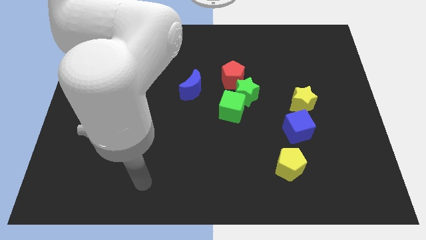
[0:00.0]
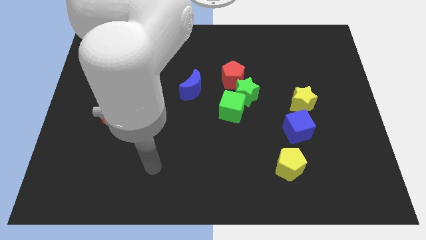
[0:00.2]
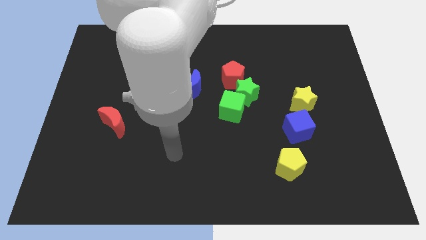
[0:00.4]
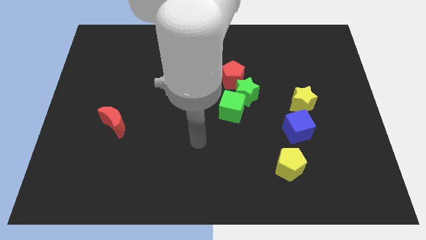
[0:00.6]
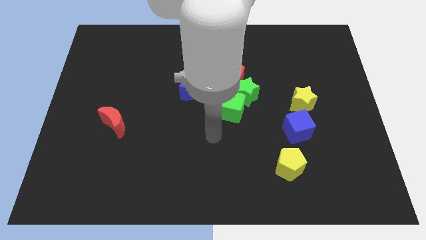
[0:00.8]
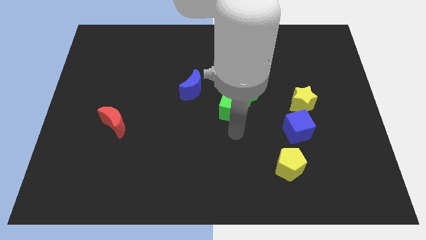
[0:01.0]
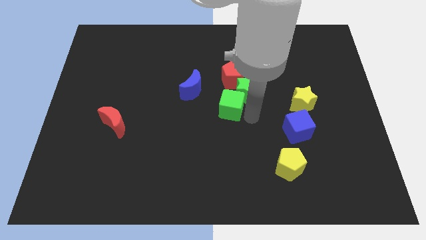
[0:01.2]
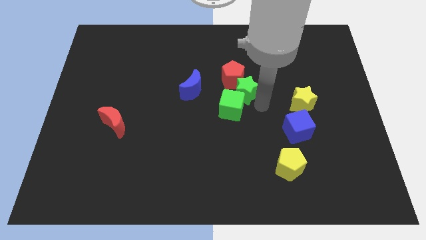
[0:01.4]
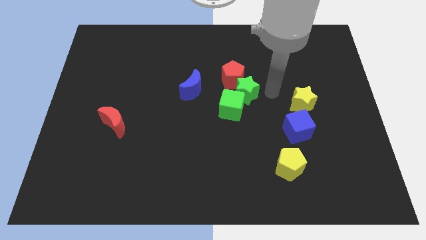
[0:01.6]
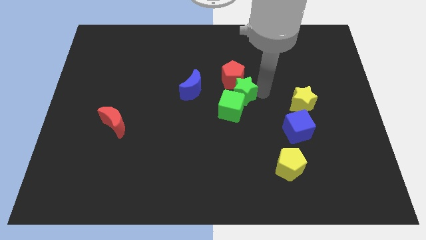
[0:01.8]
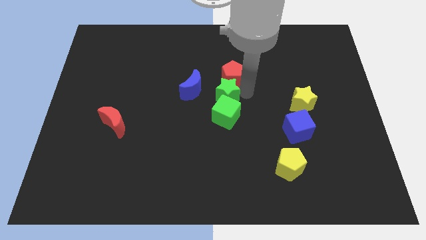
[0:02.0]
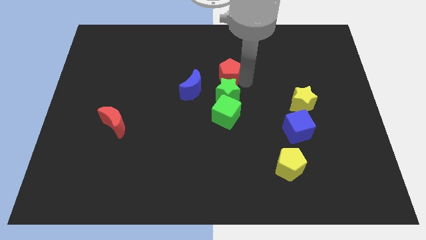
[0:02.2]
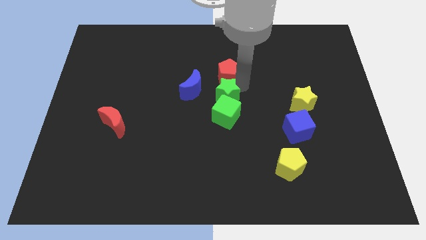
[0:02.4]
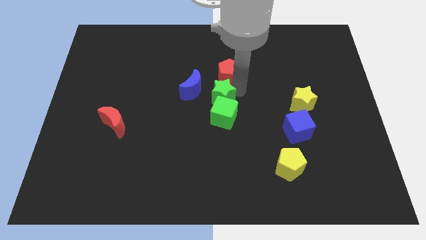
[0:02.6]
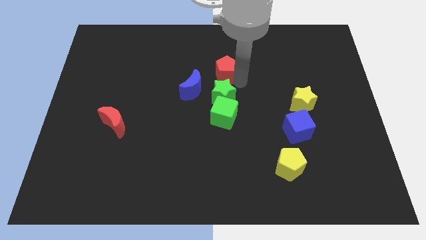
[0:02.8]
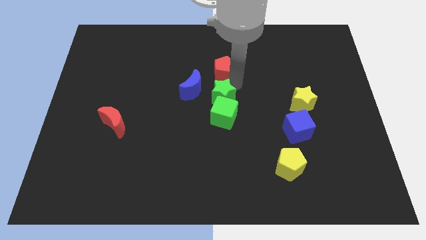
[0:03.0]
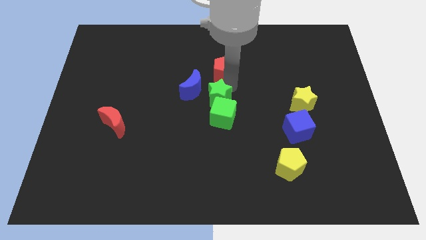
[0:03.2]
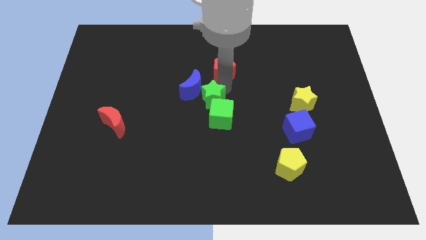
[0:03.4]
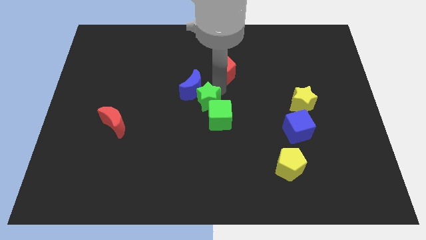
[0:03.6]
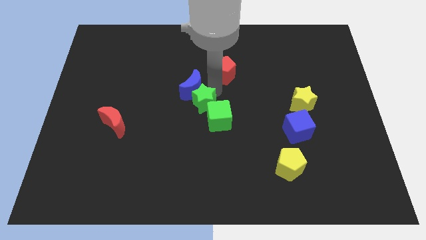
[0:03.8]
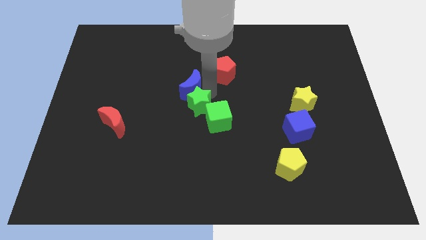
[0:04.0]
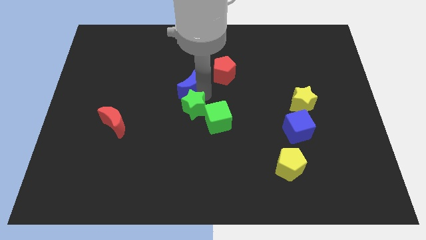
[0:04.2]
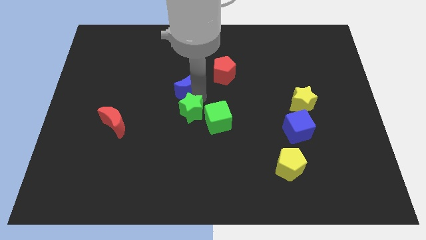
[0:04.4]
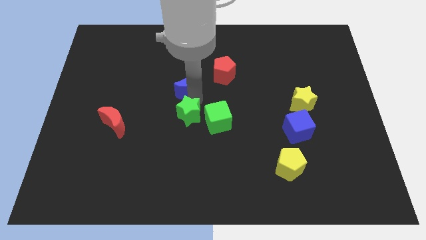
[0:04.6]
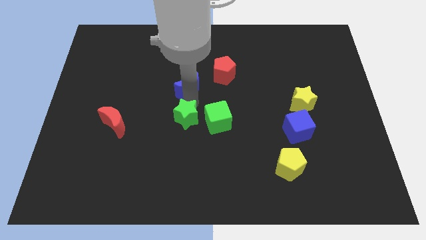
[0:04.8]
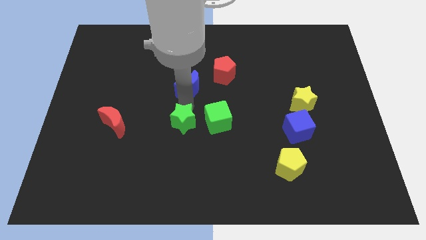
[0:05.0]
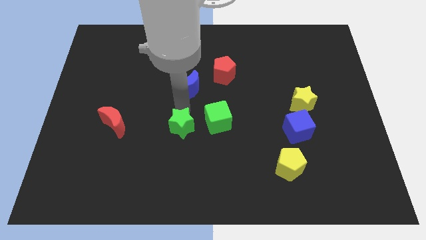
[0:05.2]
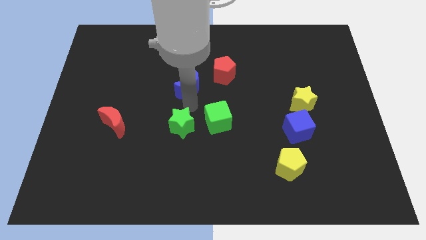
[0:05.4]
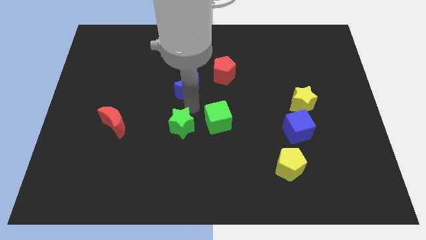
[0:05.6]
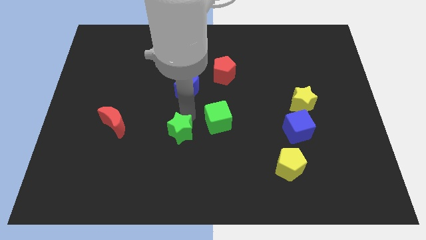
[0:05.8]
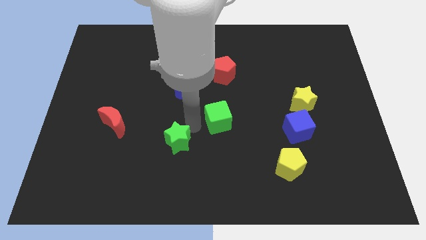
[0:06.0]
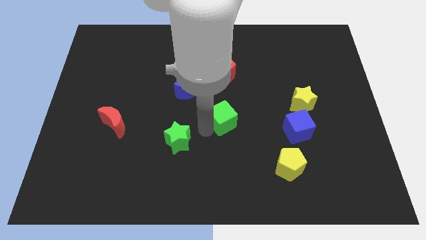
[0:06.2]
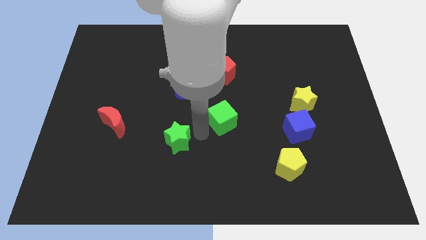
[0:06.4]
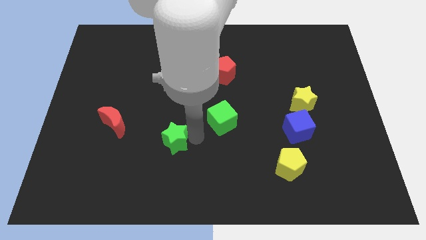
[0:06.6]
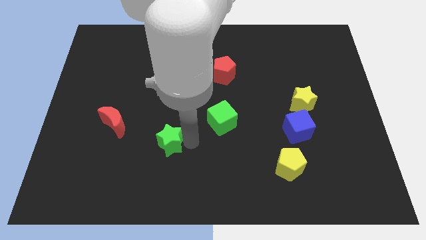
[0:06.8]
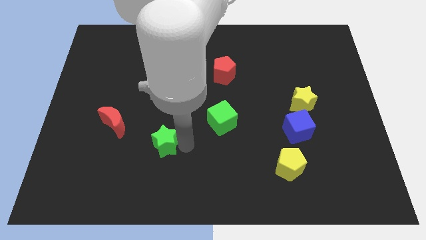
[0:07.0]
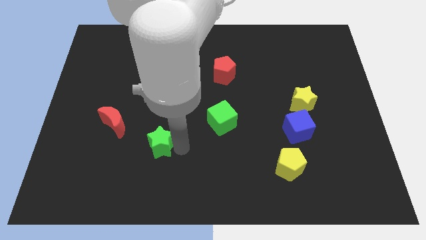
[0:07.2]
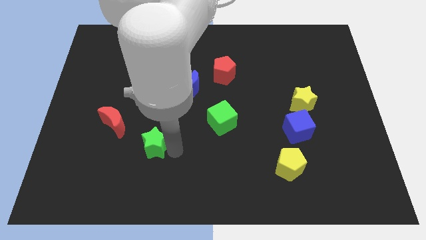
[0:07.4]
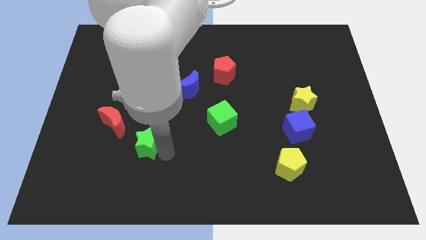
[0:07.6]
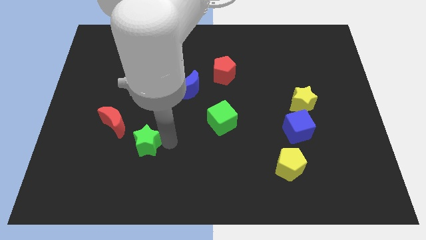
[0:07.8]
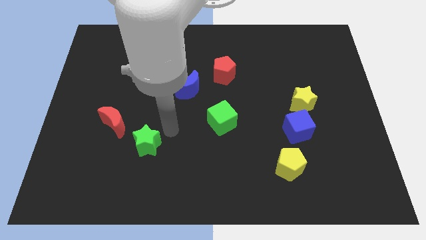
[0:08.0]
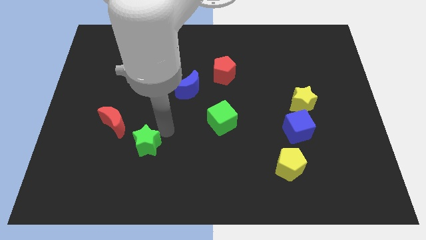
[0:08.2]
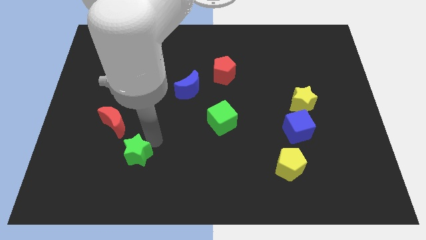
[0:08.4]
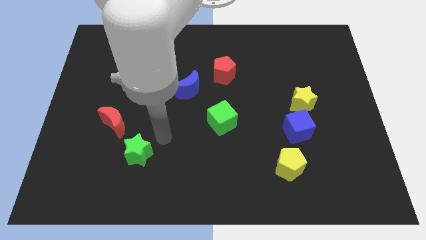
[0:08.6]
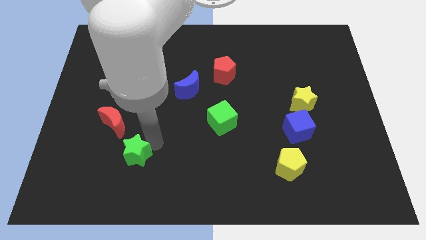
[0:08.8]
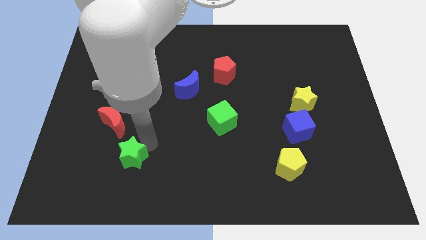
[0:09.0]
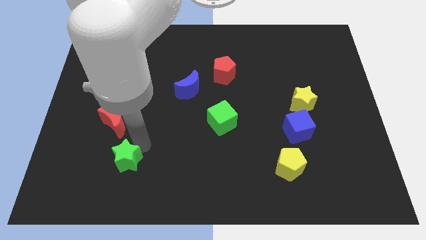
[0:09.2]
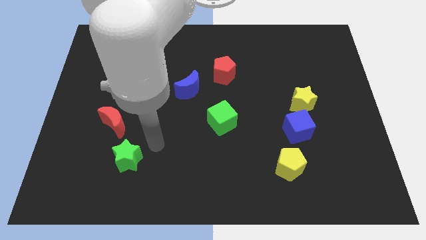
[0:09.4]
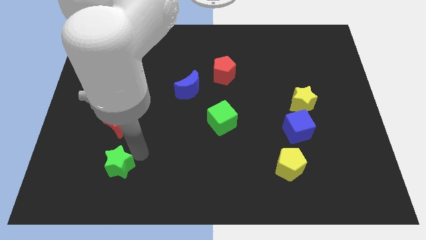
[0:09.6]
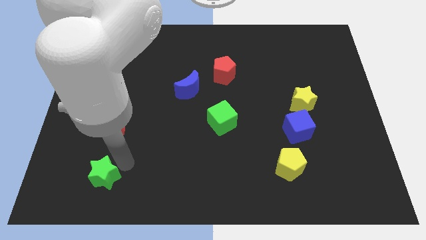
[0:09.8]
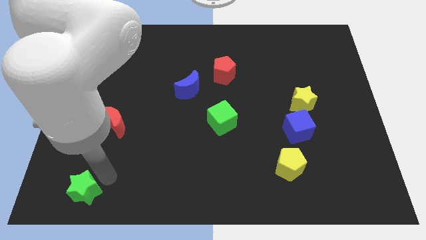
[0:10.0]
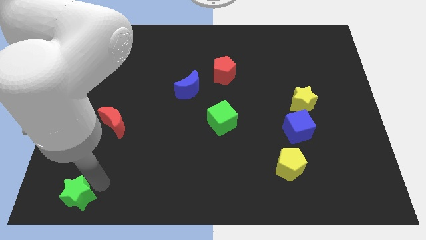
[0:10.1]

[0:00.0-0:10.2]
move the green star to the bottom left of the board

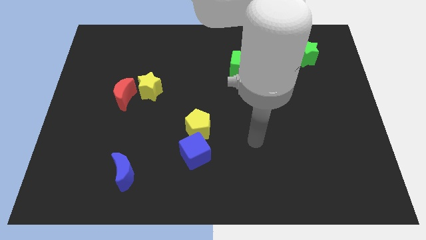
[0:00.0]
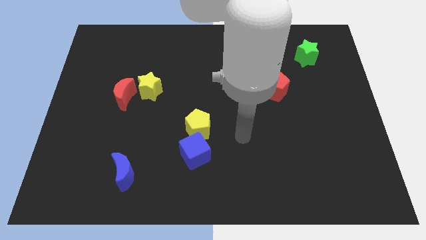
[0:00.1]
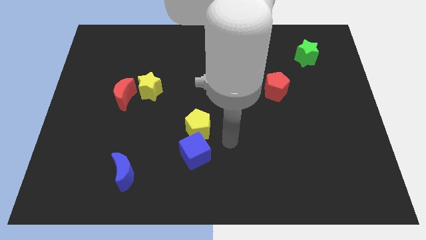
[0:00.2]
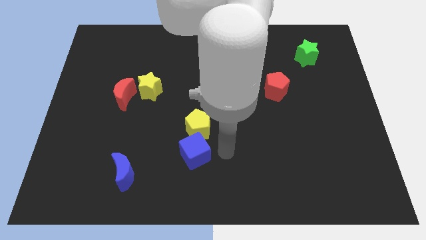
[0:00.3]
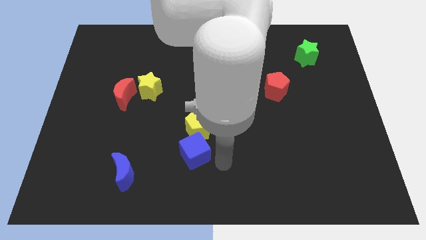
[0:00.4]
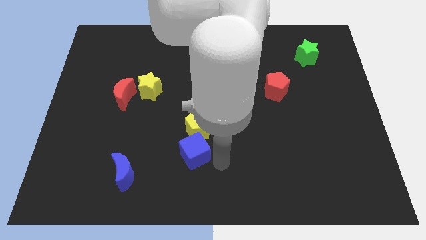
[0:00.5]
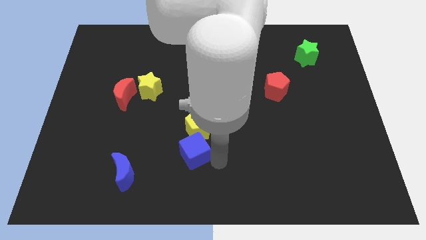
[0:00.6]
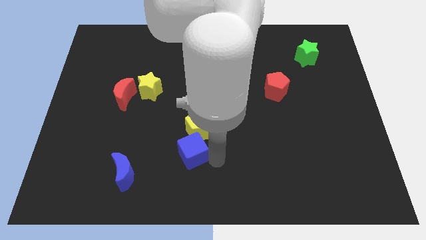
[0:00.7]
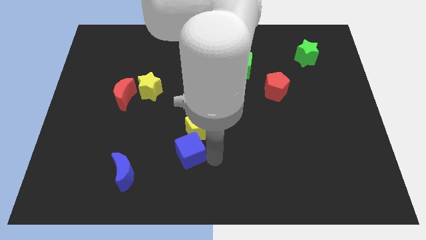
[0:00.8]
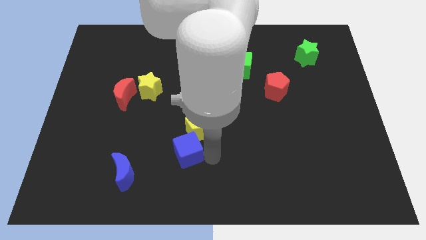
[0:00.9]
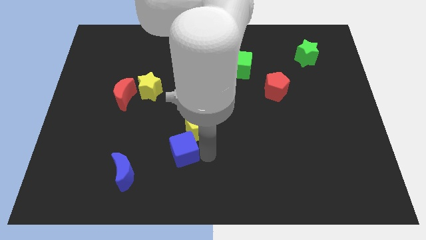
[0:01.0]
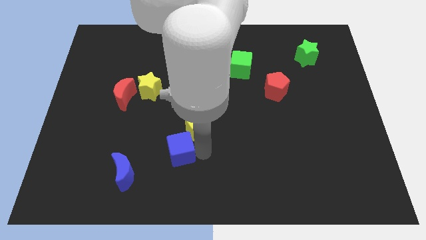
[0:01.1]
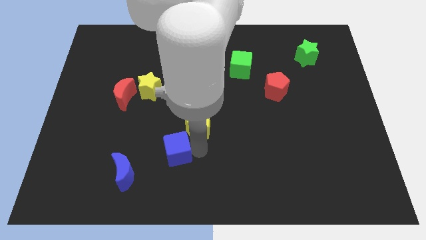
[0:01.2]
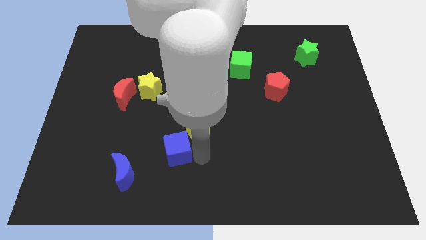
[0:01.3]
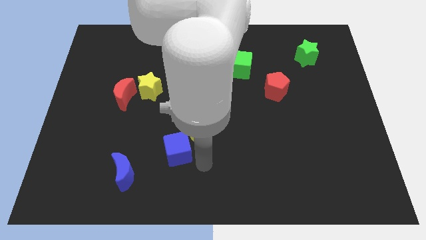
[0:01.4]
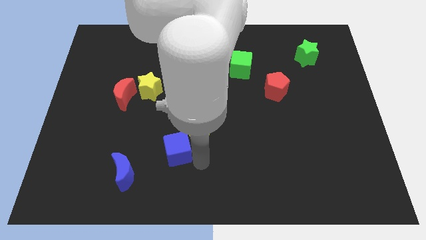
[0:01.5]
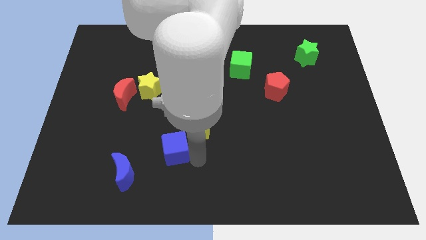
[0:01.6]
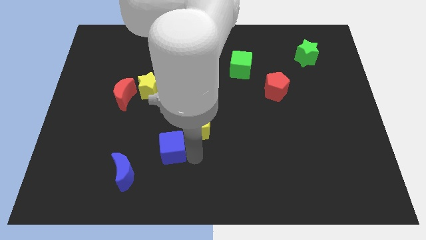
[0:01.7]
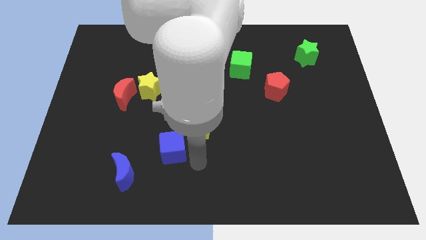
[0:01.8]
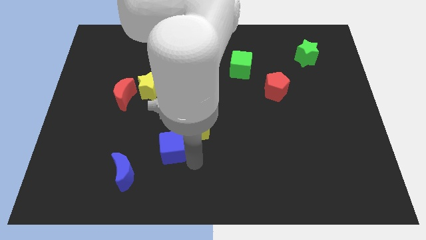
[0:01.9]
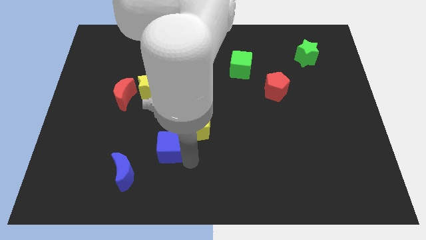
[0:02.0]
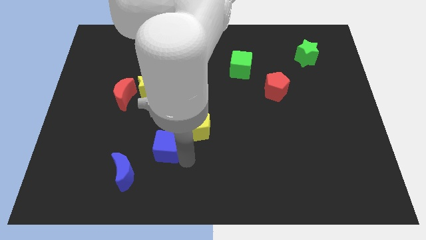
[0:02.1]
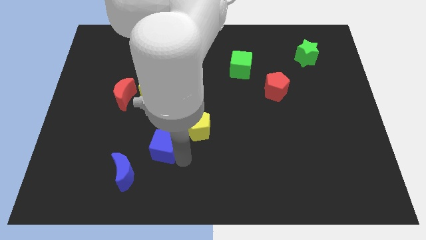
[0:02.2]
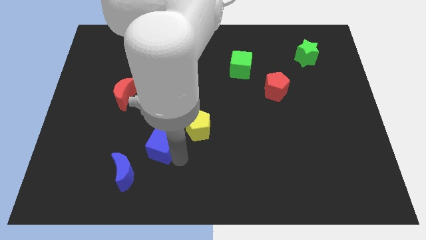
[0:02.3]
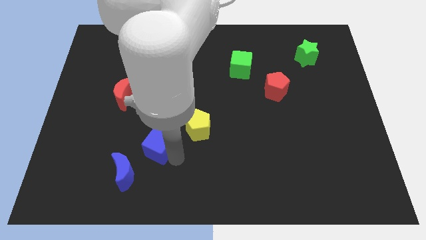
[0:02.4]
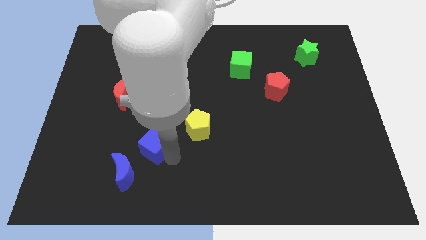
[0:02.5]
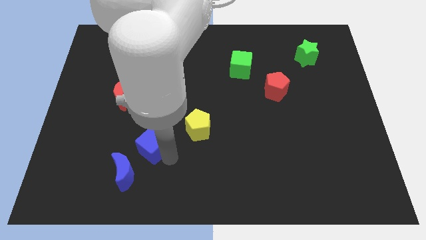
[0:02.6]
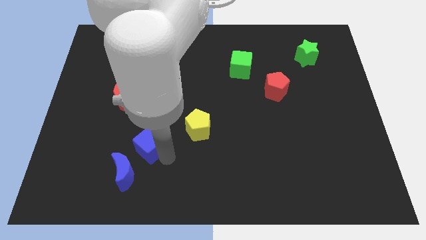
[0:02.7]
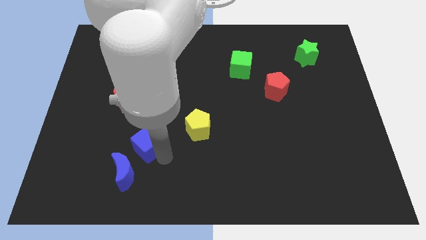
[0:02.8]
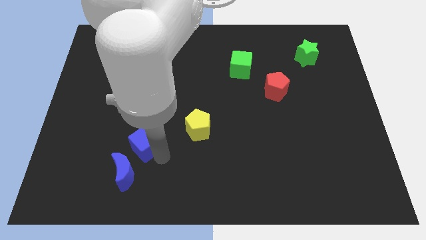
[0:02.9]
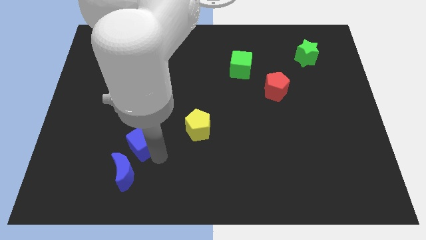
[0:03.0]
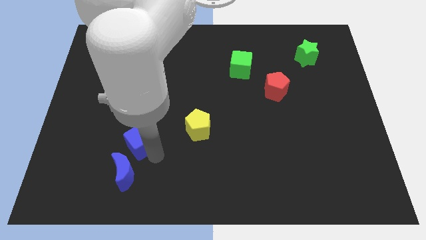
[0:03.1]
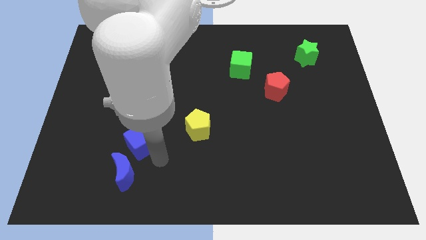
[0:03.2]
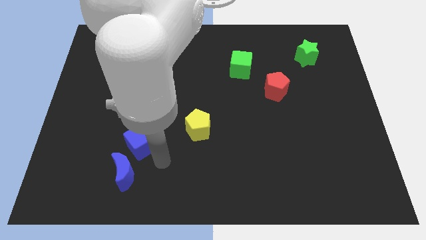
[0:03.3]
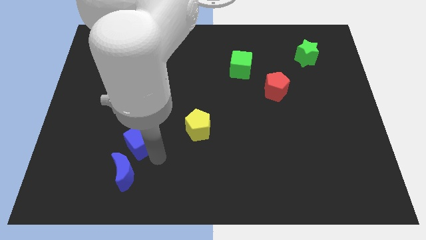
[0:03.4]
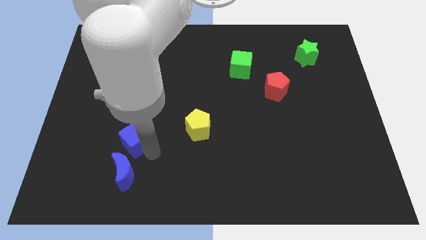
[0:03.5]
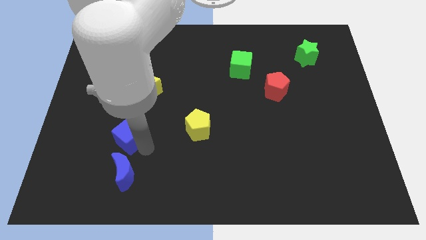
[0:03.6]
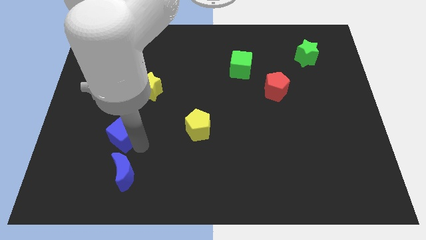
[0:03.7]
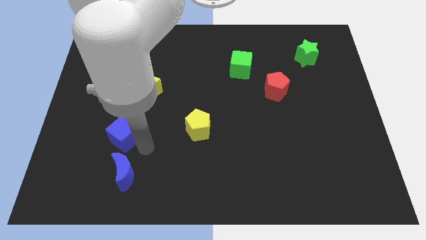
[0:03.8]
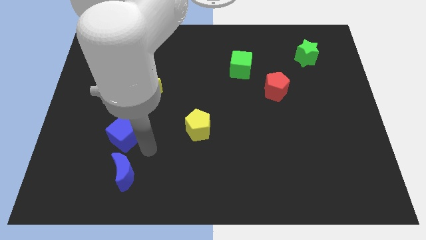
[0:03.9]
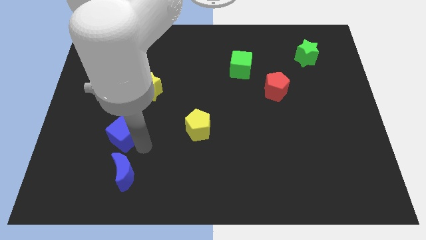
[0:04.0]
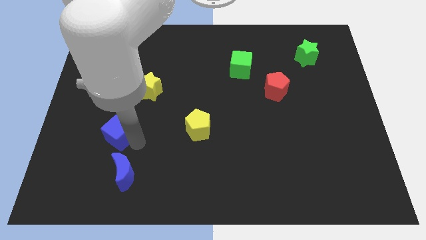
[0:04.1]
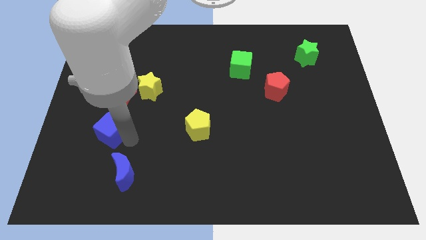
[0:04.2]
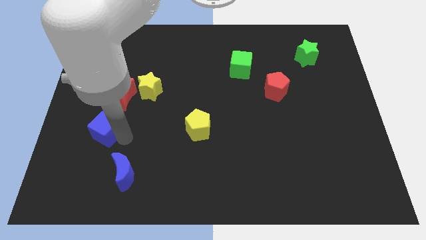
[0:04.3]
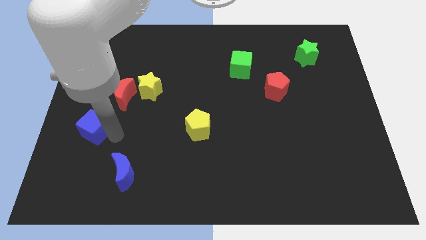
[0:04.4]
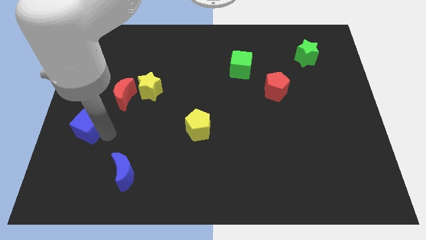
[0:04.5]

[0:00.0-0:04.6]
slide the blue cube to the left side
